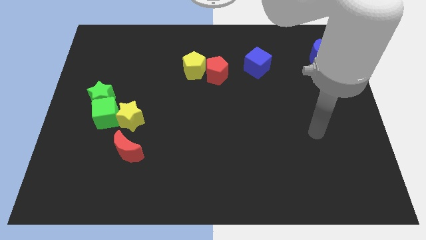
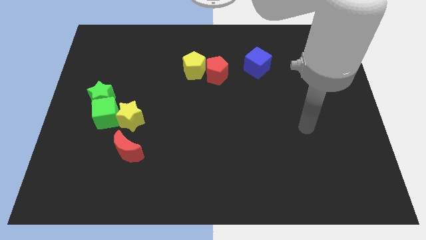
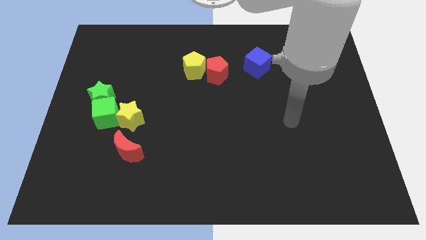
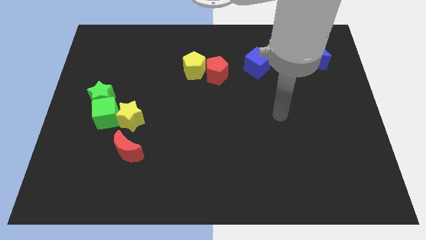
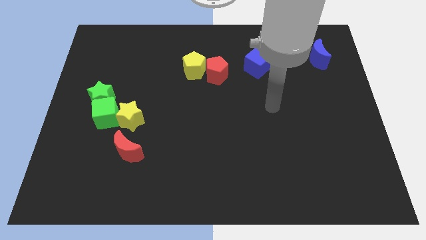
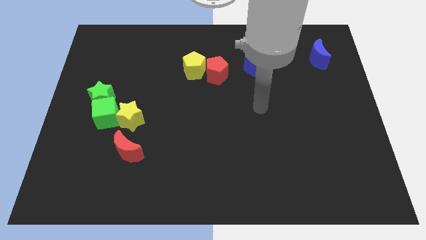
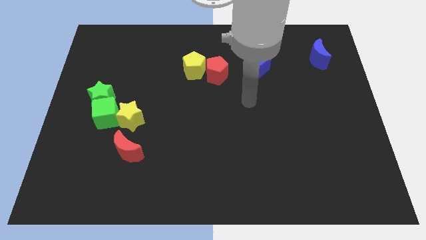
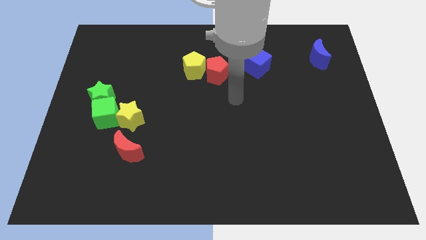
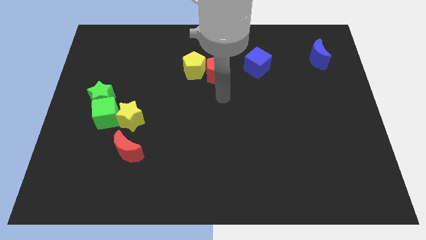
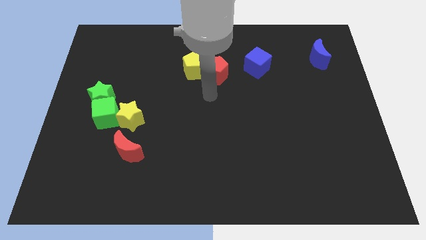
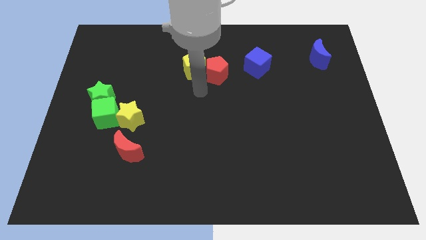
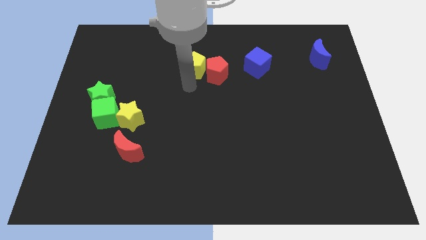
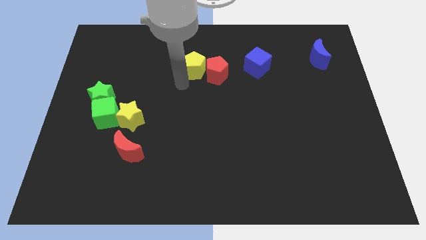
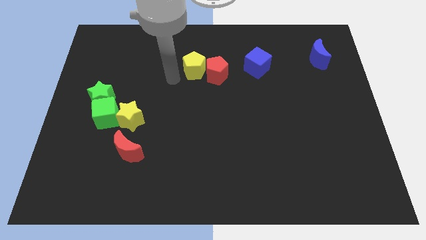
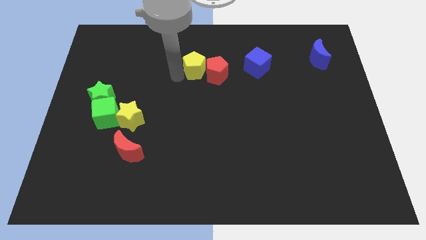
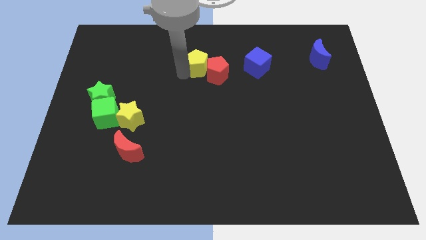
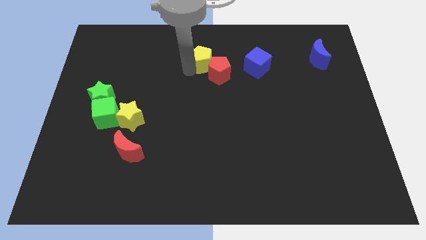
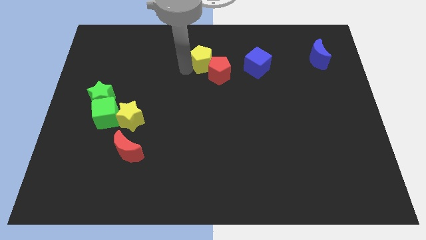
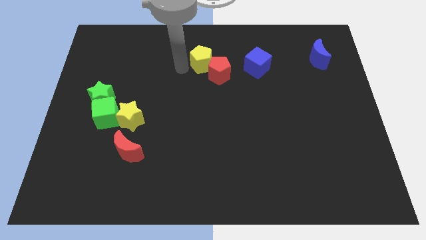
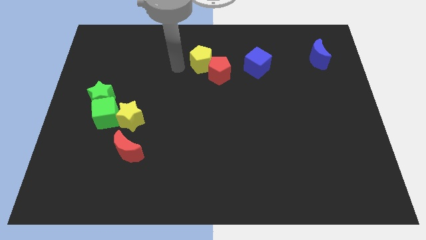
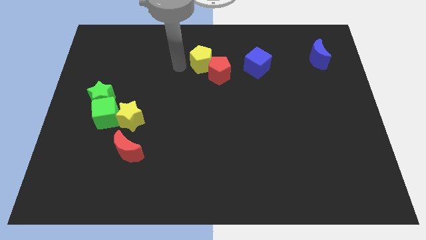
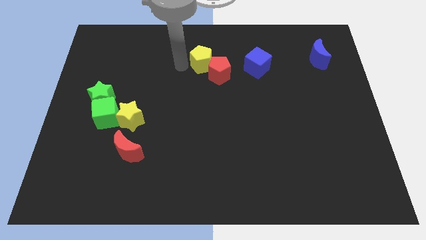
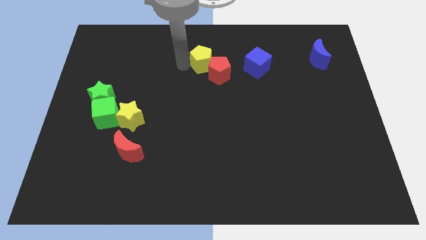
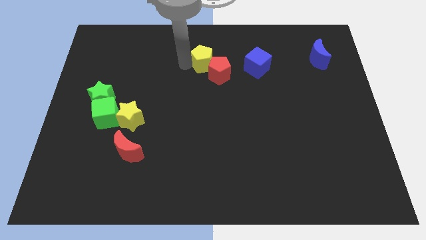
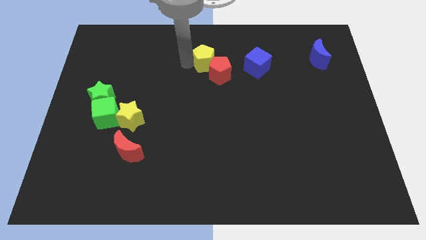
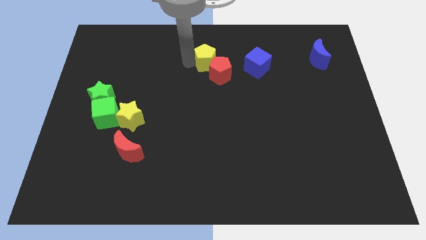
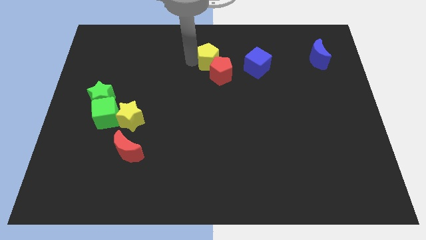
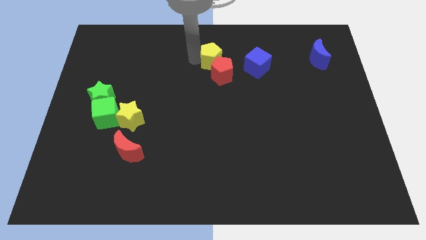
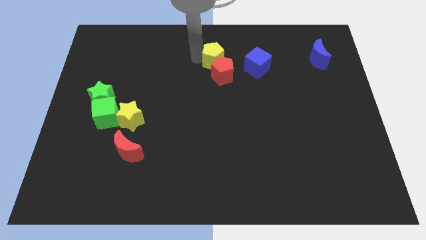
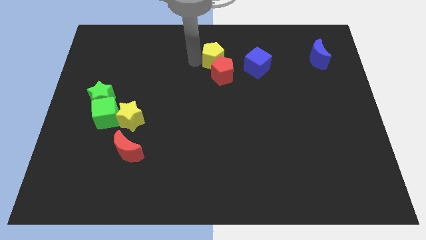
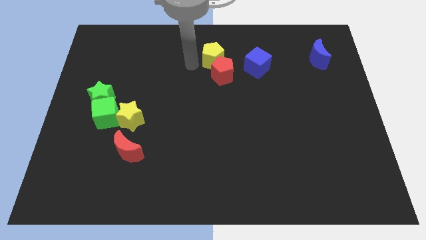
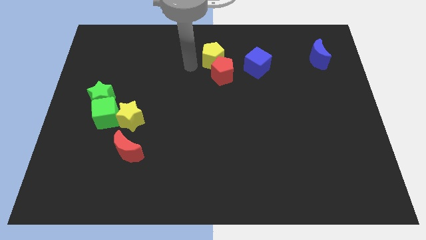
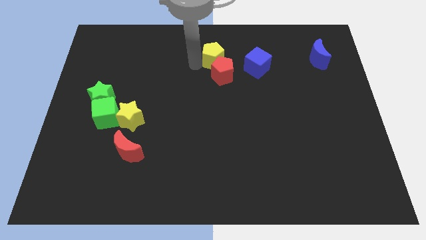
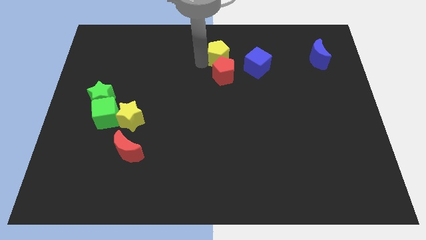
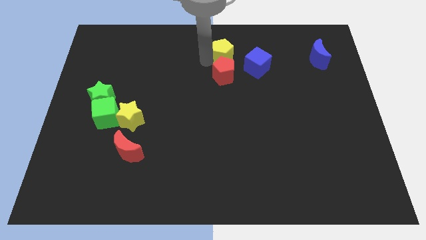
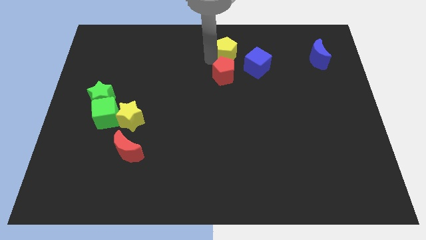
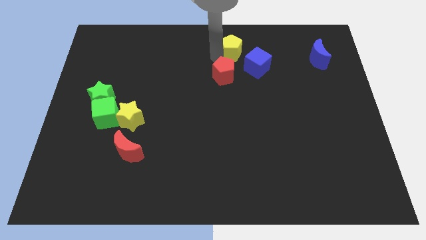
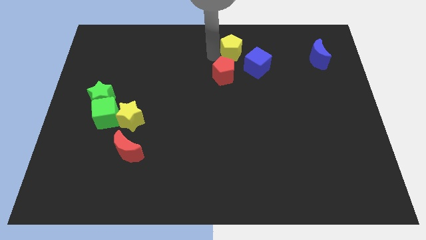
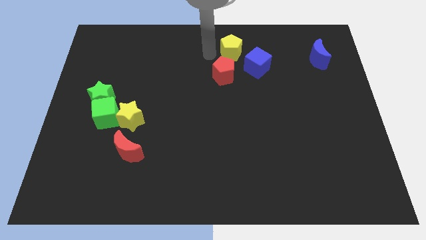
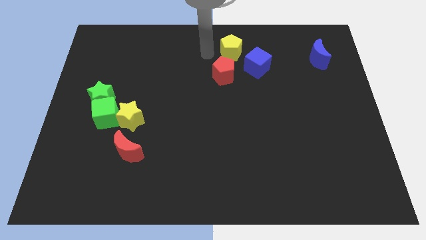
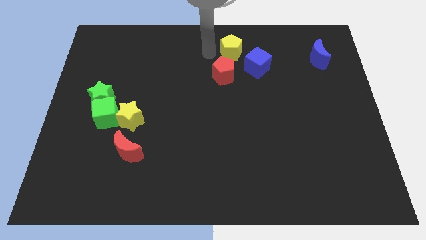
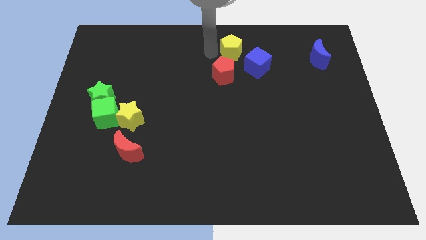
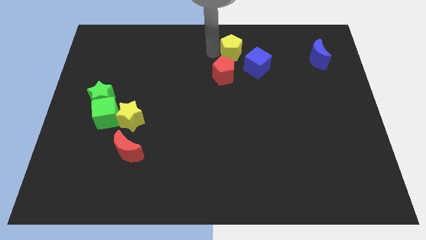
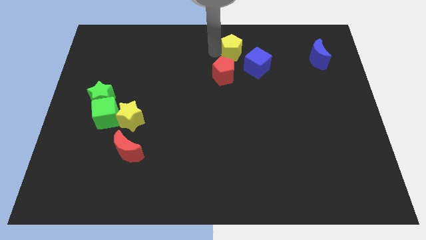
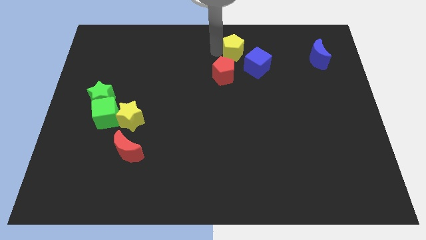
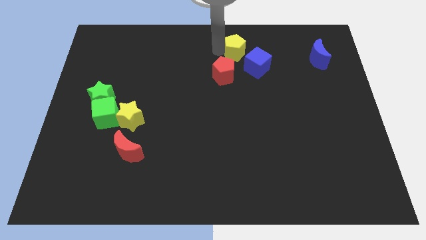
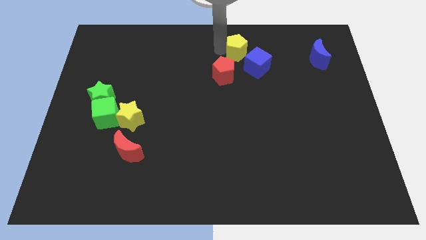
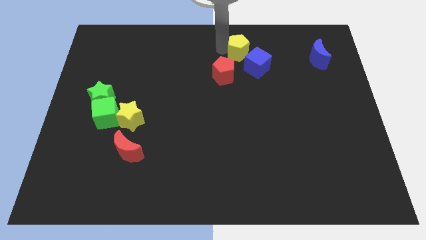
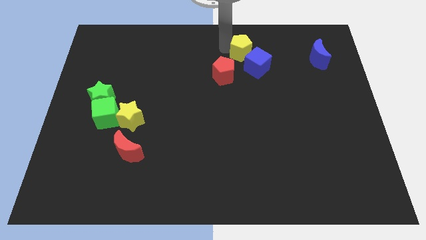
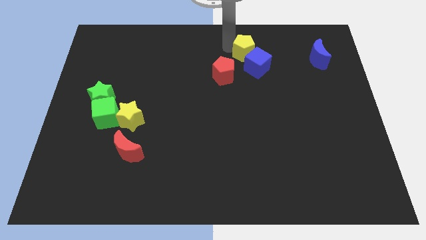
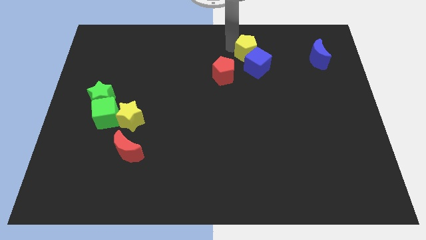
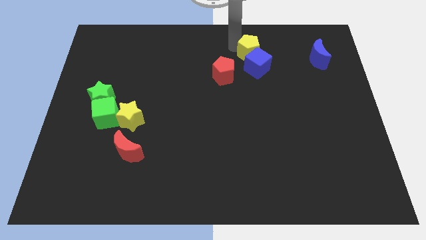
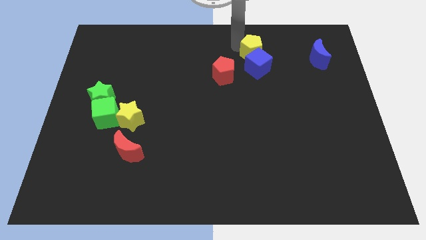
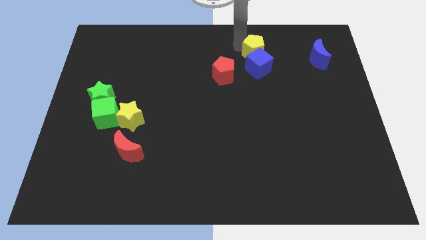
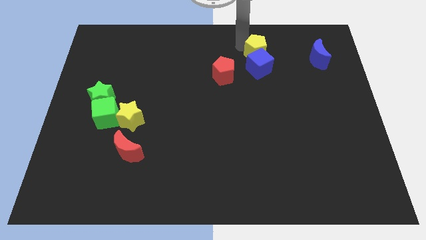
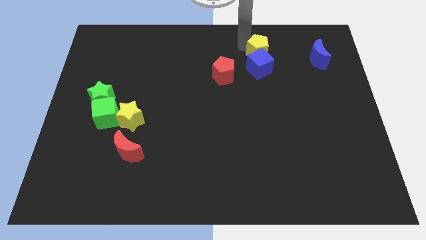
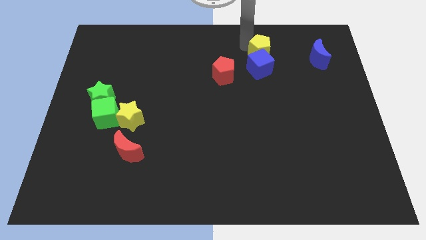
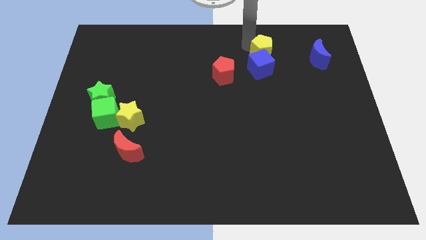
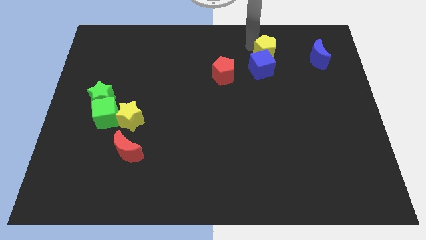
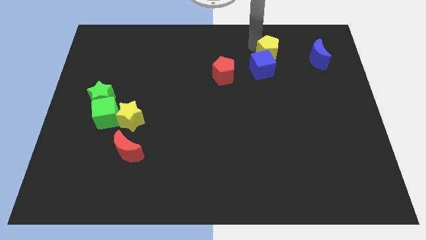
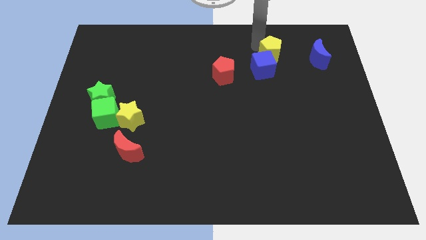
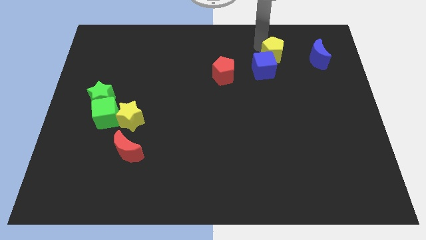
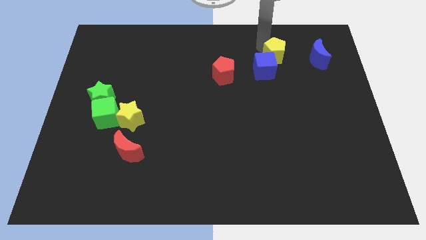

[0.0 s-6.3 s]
slide the yellow pentagon to the right

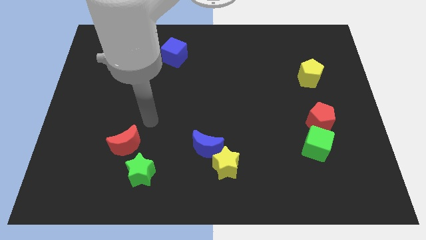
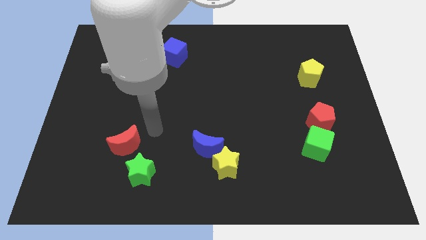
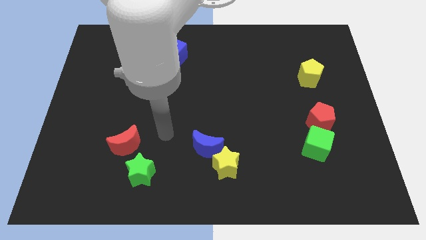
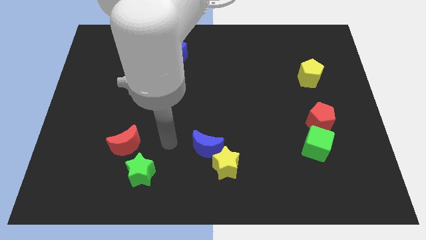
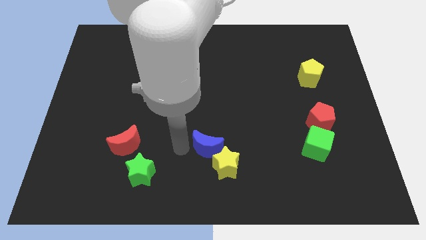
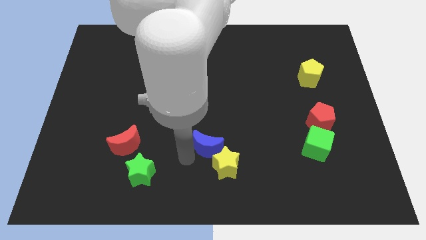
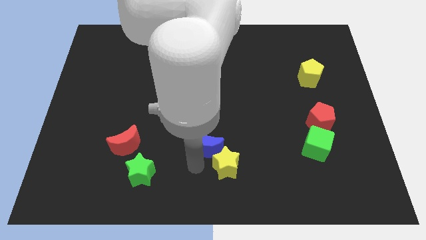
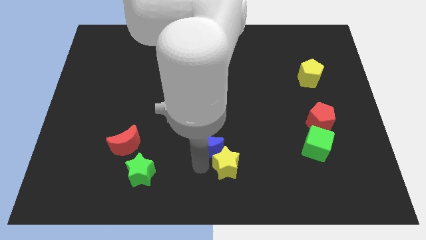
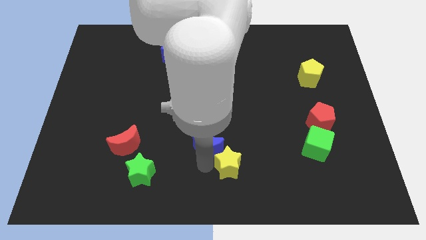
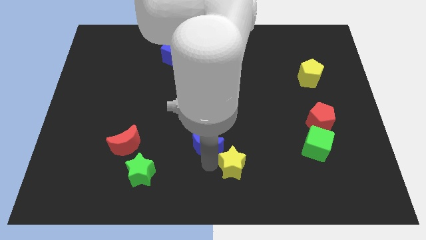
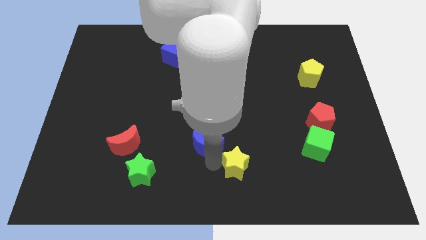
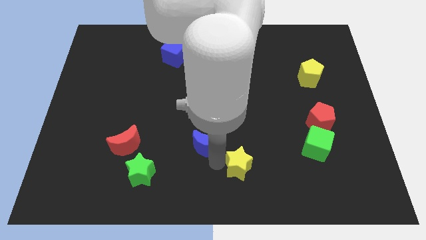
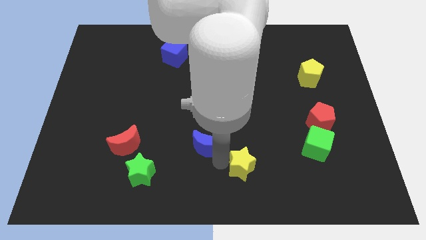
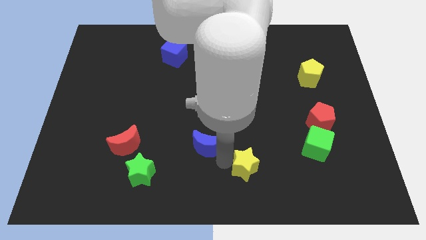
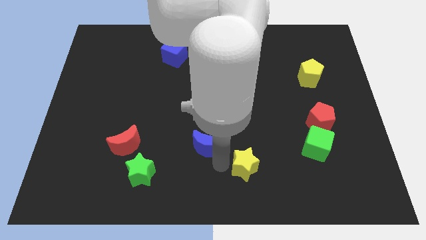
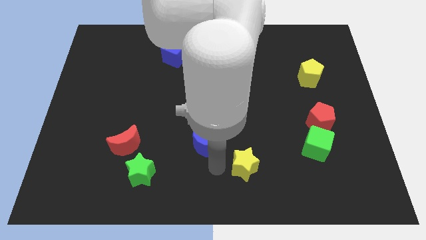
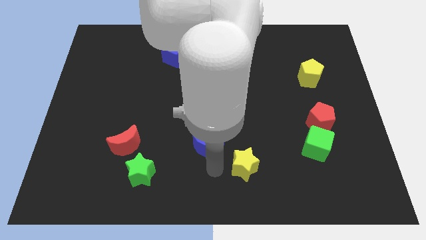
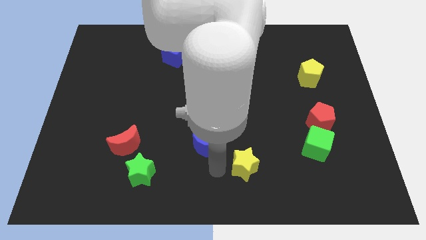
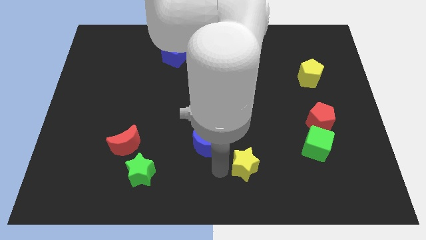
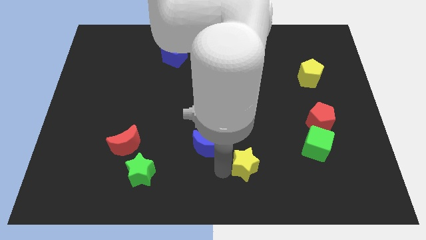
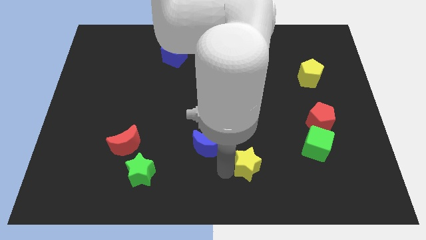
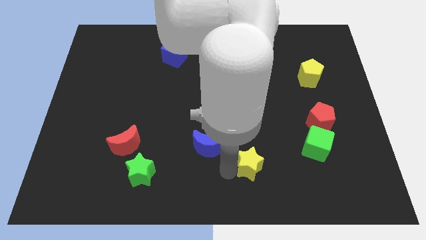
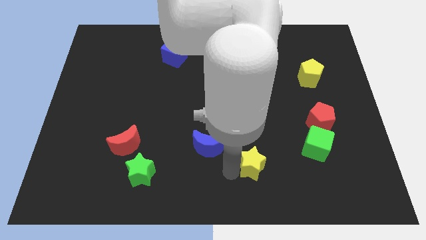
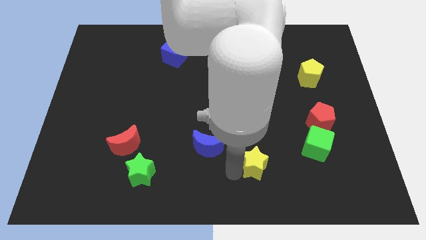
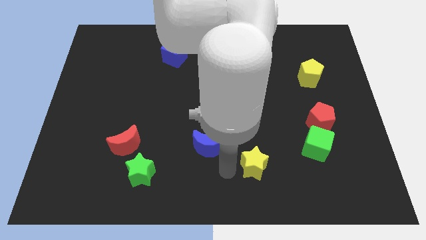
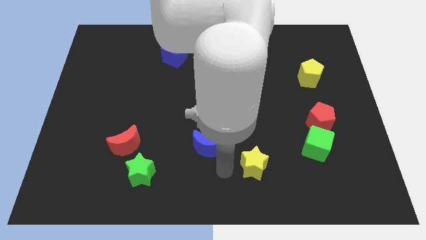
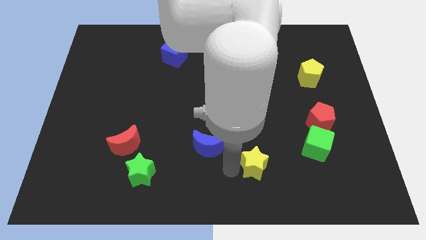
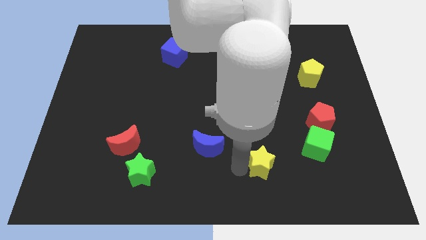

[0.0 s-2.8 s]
slide the yellow star somewhat to the right
